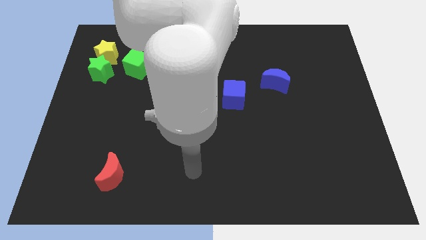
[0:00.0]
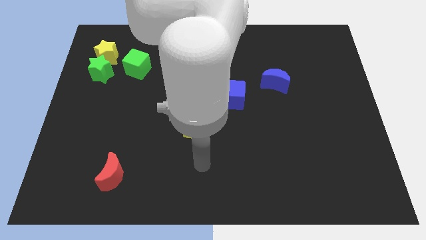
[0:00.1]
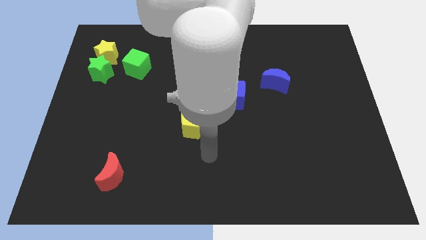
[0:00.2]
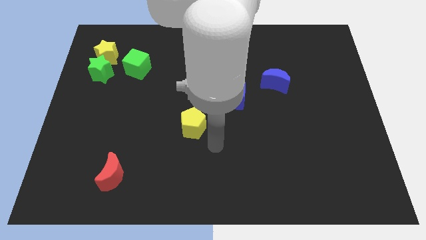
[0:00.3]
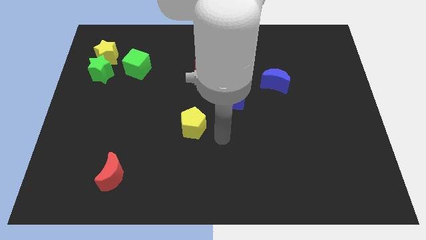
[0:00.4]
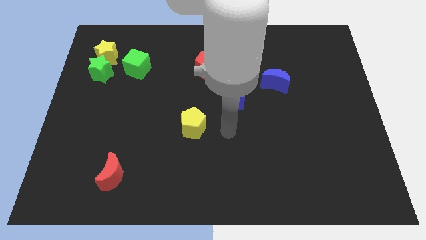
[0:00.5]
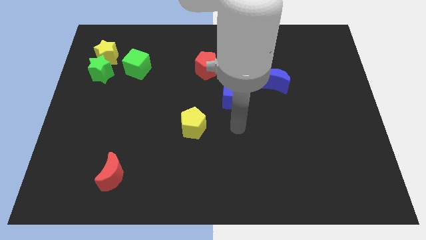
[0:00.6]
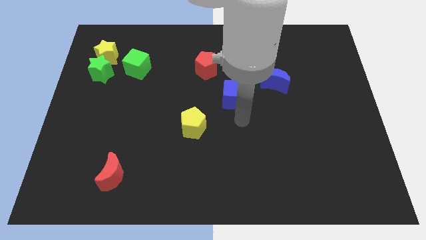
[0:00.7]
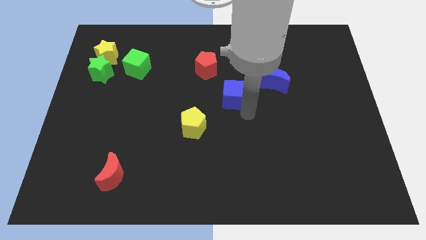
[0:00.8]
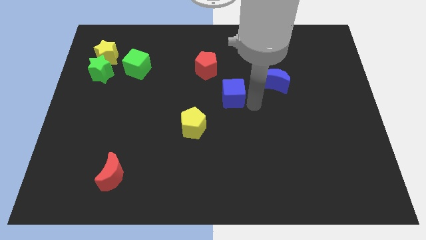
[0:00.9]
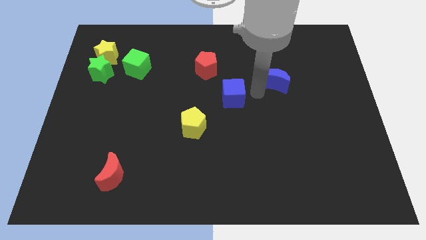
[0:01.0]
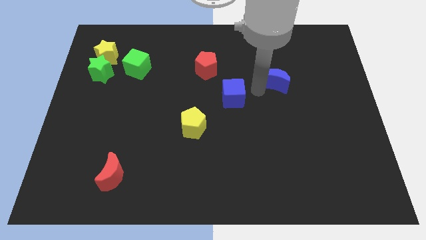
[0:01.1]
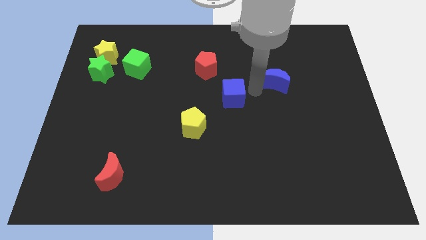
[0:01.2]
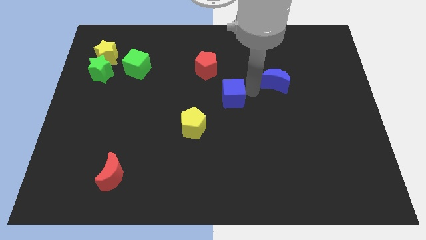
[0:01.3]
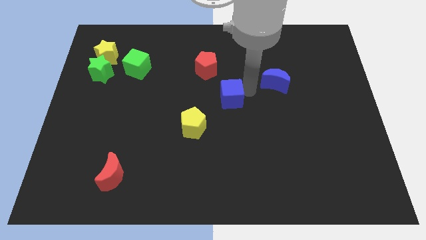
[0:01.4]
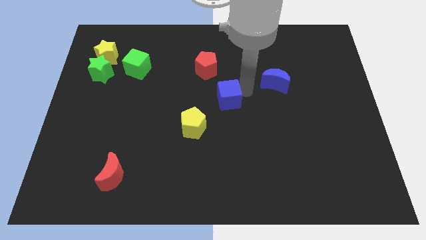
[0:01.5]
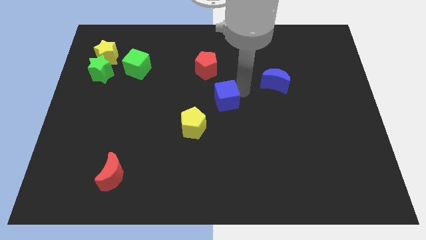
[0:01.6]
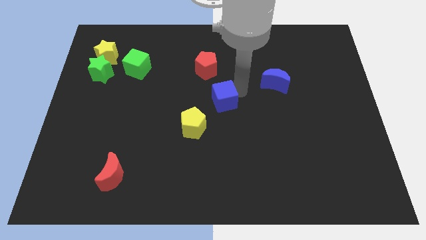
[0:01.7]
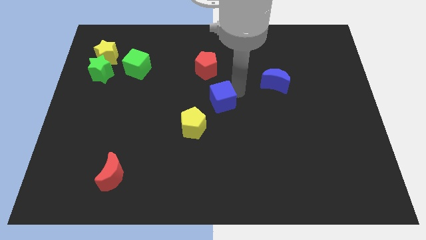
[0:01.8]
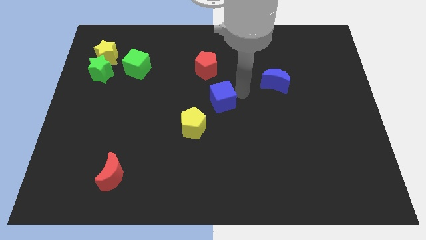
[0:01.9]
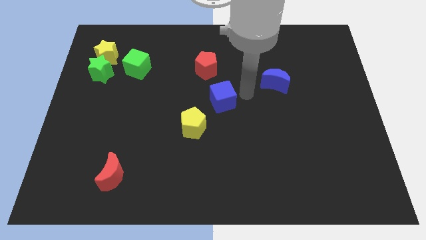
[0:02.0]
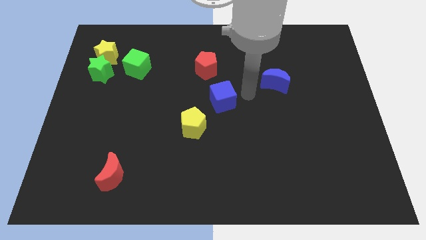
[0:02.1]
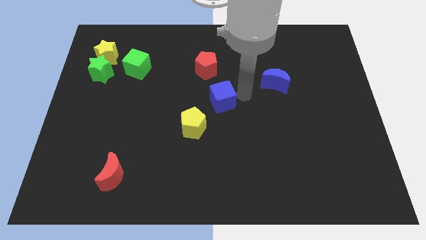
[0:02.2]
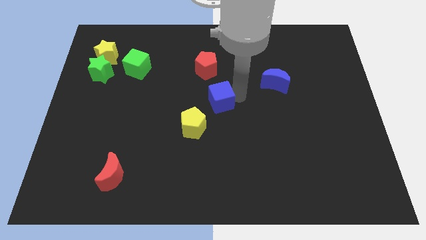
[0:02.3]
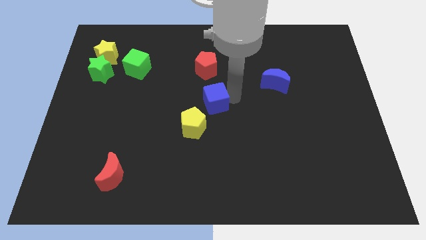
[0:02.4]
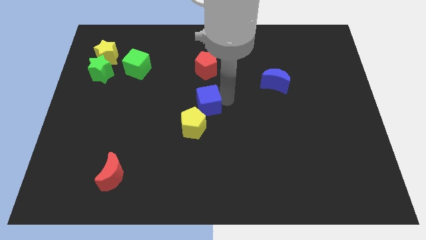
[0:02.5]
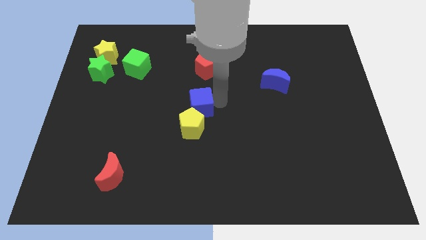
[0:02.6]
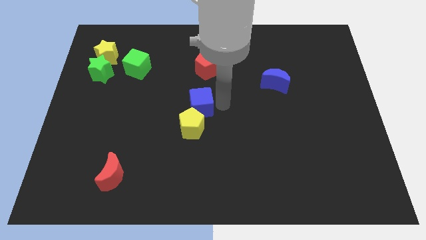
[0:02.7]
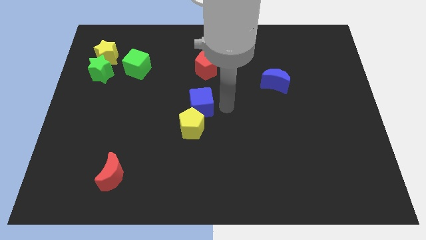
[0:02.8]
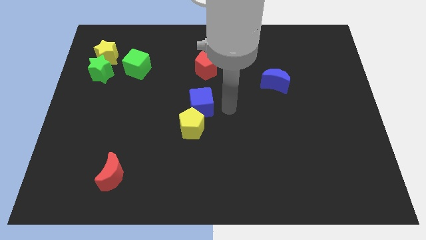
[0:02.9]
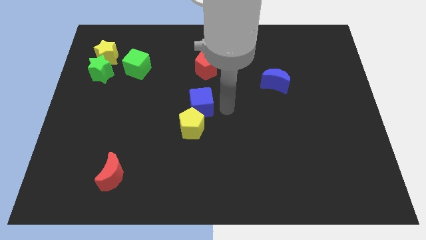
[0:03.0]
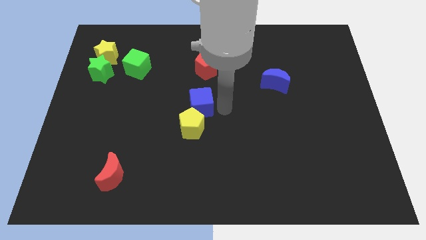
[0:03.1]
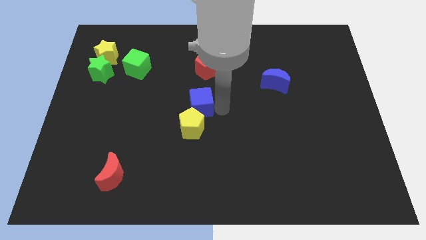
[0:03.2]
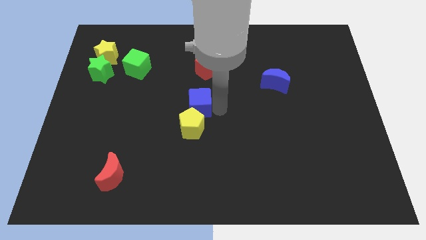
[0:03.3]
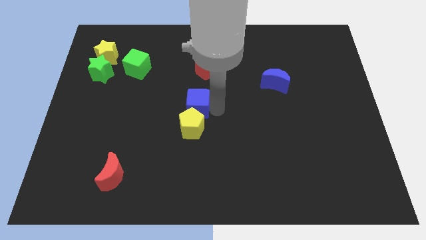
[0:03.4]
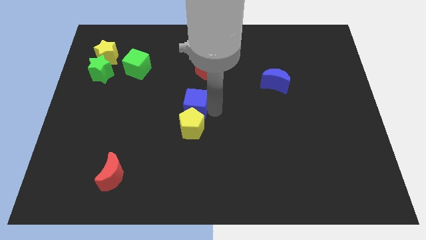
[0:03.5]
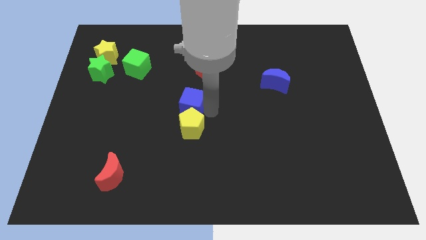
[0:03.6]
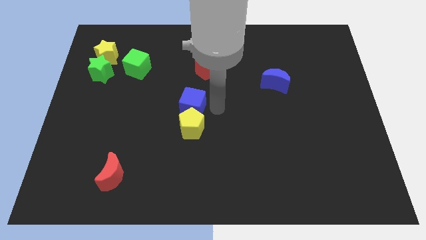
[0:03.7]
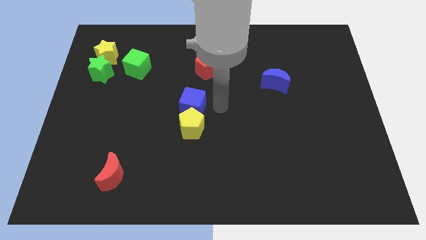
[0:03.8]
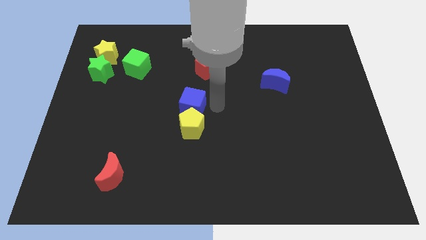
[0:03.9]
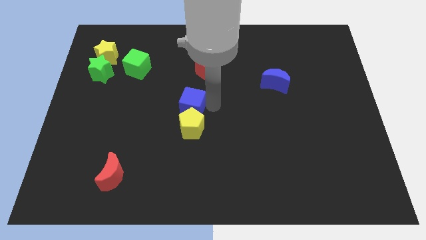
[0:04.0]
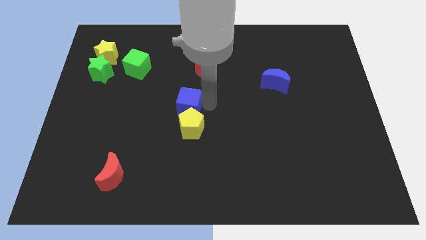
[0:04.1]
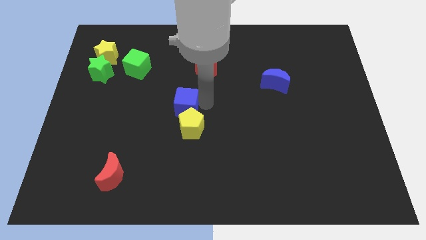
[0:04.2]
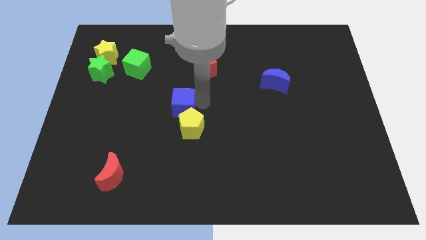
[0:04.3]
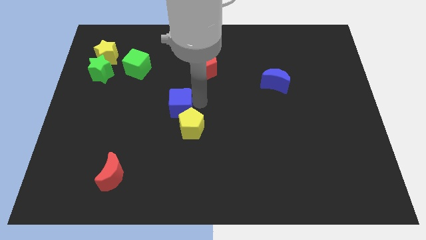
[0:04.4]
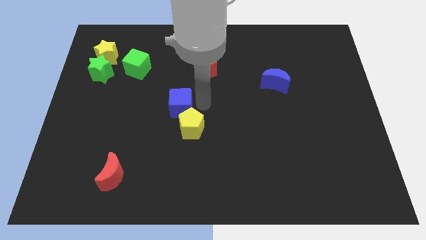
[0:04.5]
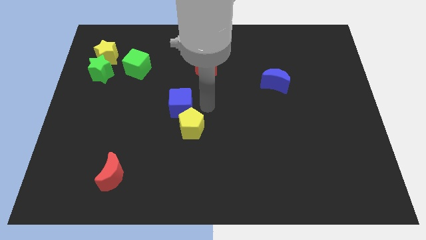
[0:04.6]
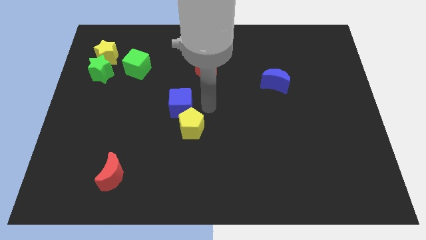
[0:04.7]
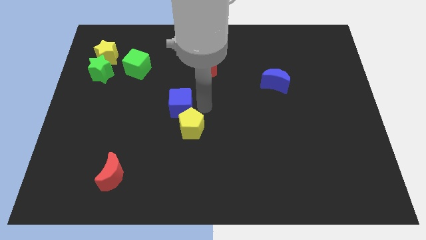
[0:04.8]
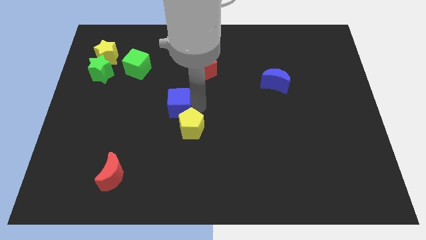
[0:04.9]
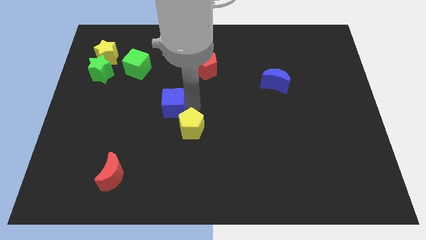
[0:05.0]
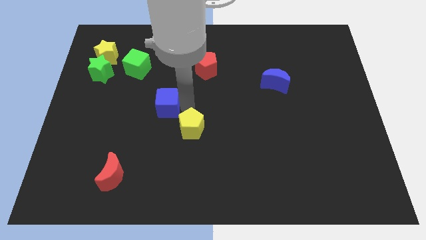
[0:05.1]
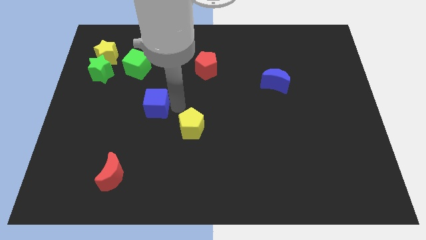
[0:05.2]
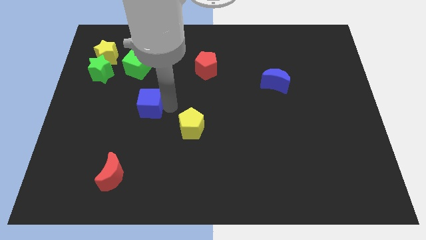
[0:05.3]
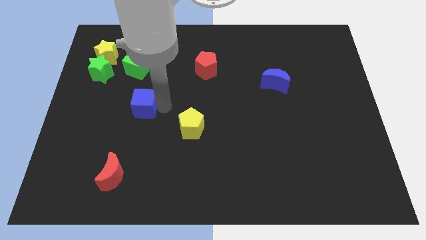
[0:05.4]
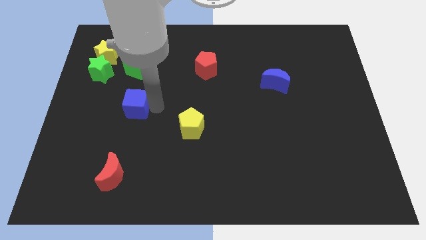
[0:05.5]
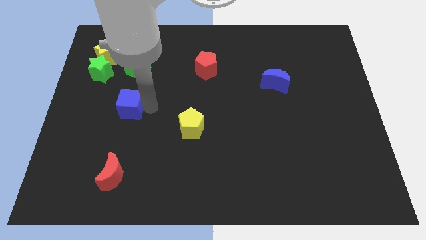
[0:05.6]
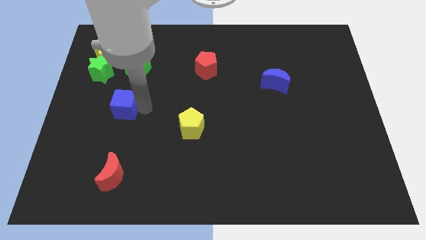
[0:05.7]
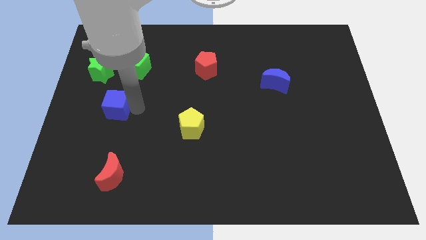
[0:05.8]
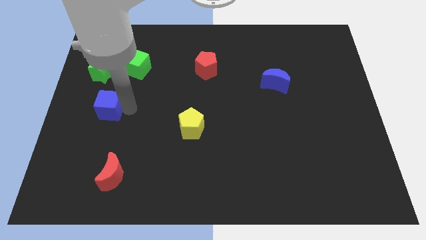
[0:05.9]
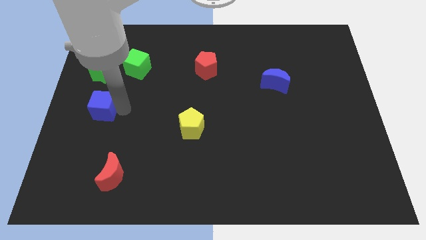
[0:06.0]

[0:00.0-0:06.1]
move the blue cube to the left side of the board

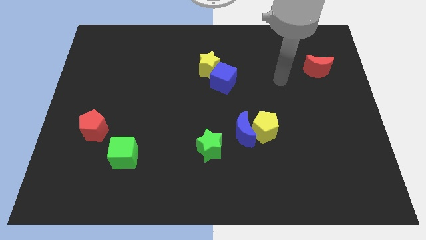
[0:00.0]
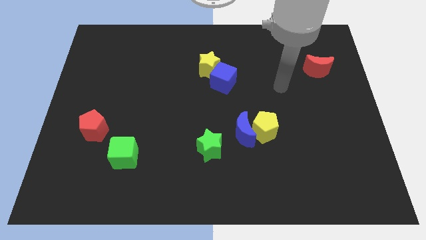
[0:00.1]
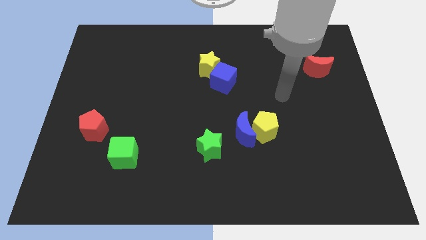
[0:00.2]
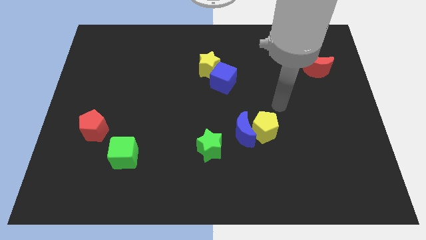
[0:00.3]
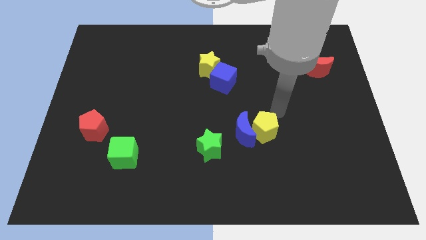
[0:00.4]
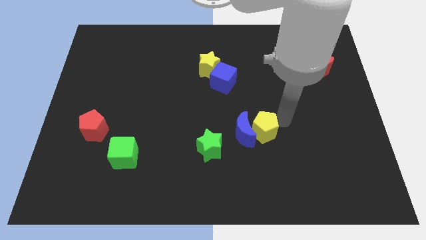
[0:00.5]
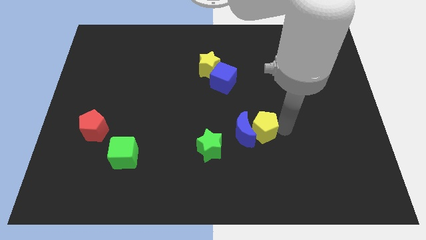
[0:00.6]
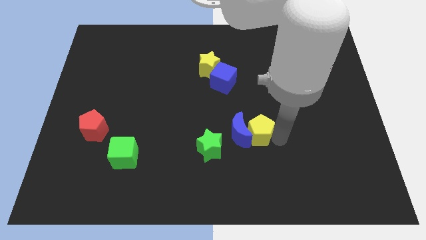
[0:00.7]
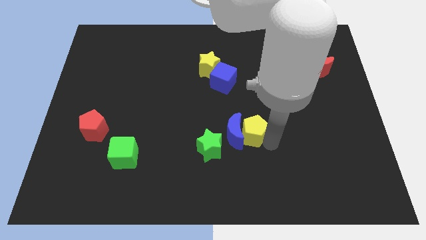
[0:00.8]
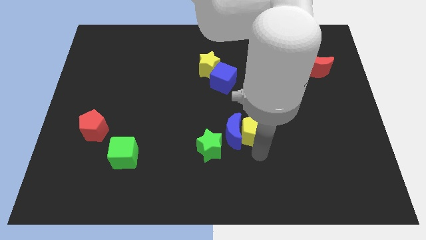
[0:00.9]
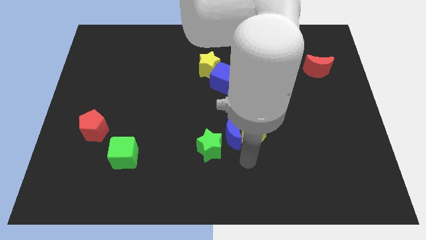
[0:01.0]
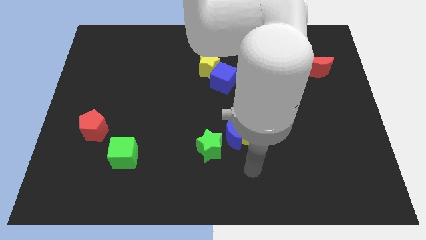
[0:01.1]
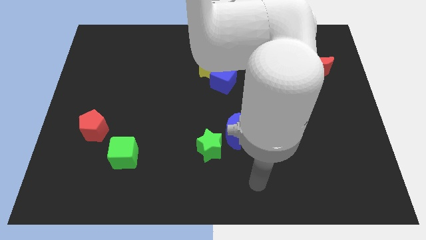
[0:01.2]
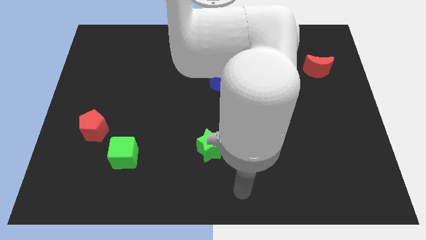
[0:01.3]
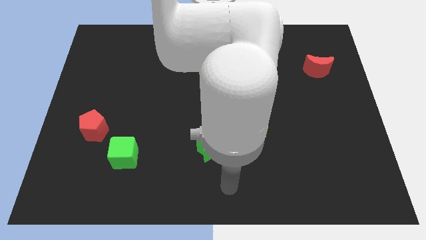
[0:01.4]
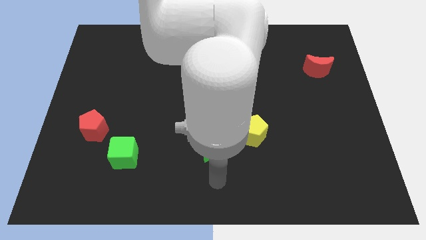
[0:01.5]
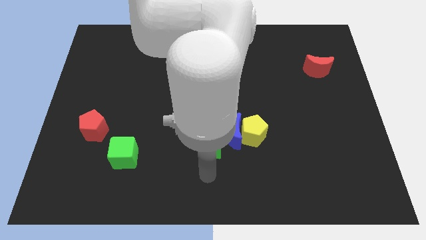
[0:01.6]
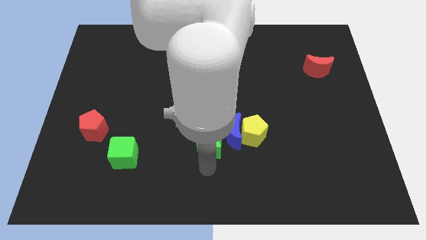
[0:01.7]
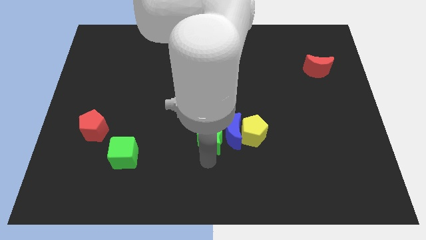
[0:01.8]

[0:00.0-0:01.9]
push the green star to the center
